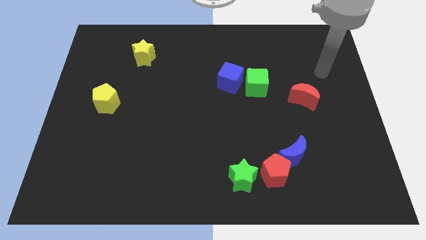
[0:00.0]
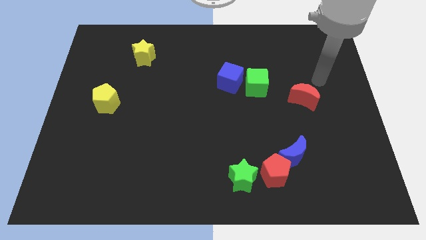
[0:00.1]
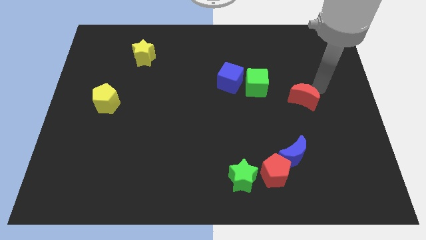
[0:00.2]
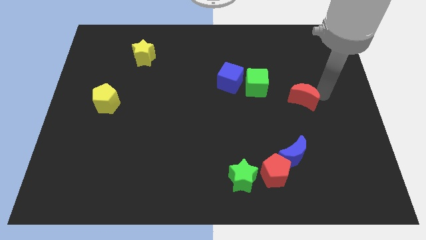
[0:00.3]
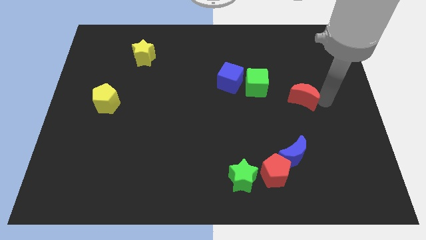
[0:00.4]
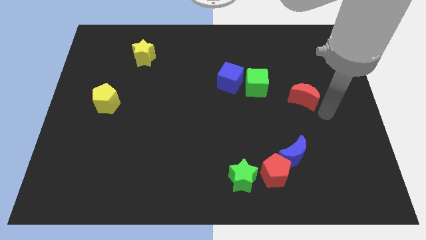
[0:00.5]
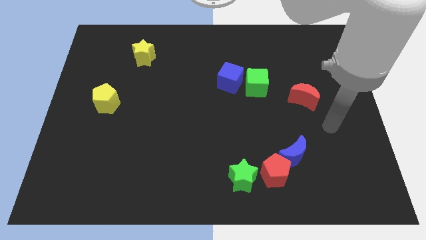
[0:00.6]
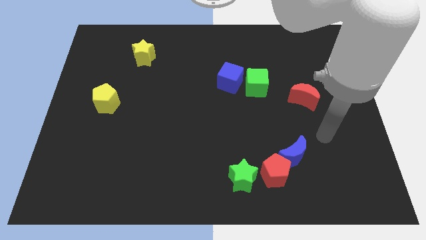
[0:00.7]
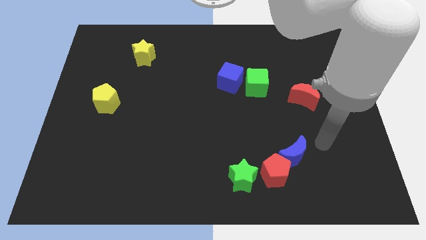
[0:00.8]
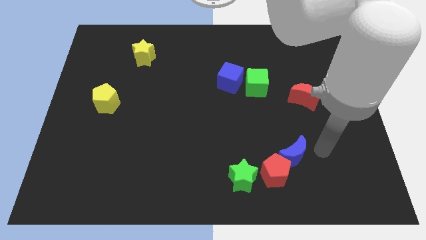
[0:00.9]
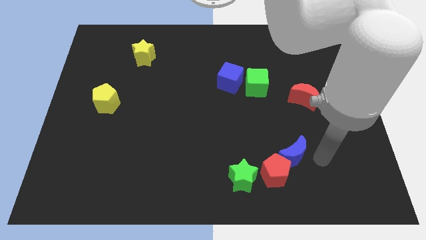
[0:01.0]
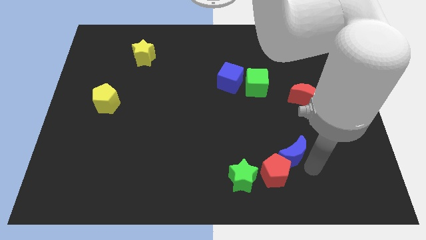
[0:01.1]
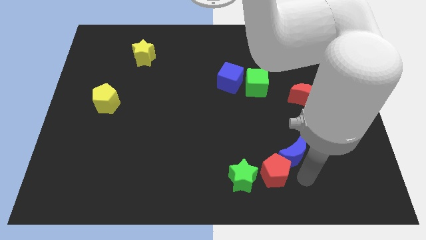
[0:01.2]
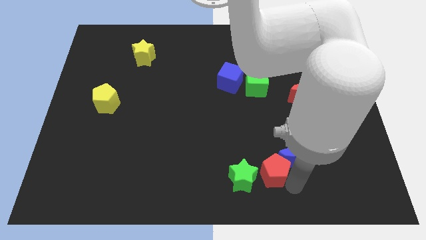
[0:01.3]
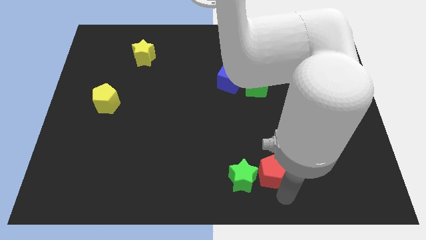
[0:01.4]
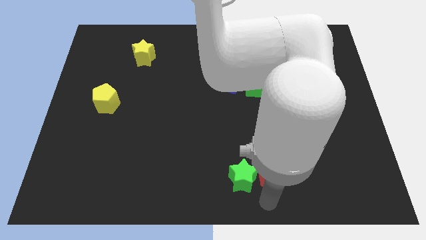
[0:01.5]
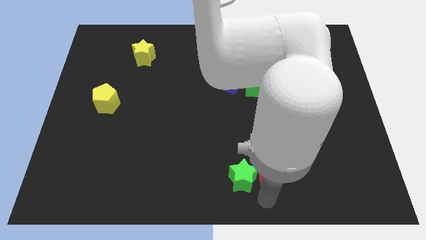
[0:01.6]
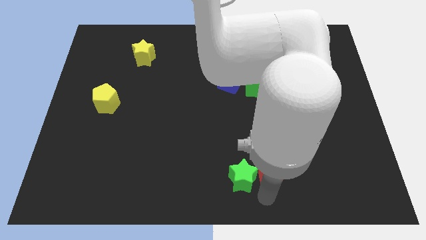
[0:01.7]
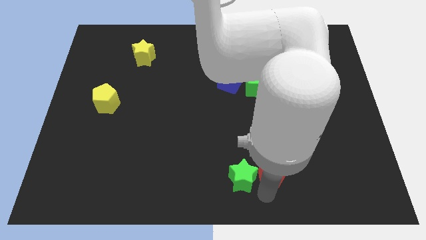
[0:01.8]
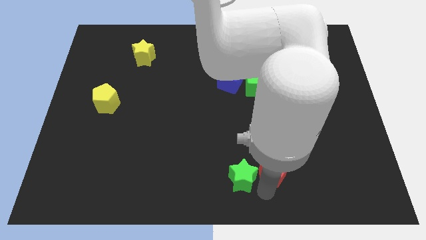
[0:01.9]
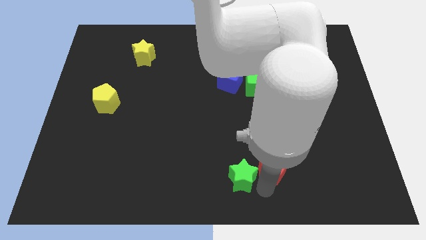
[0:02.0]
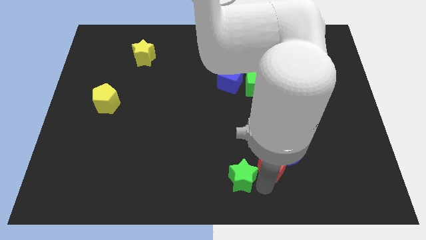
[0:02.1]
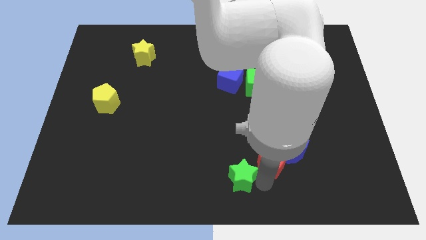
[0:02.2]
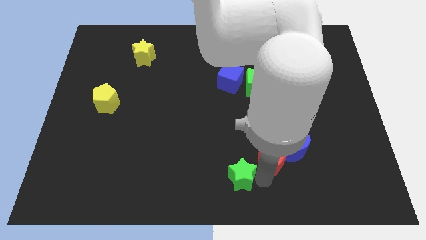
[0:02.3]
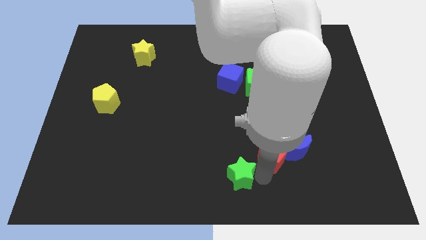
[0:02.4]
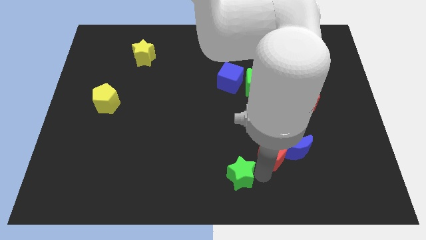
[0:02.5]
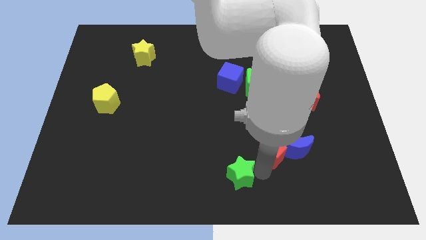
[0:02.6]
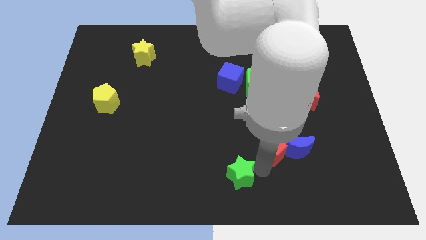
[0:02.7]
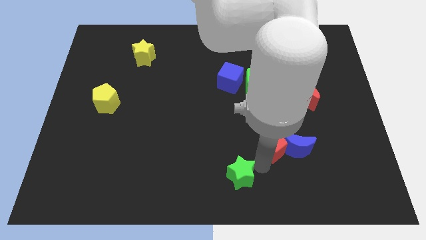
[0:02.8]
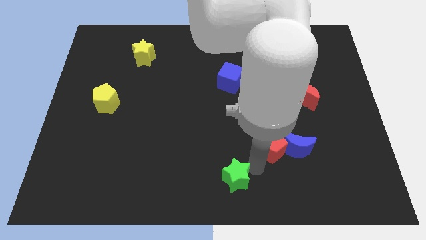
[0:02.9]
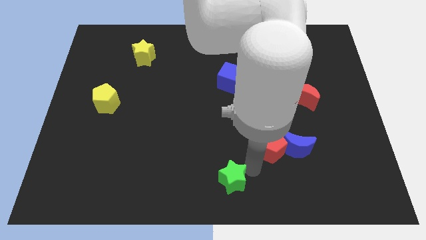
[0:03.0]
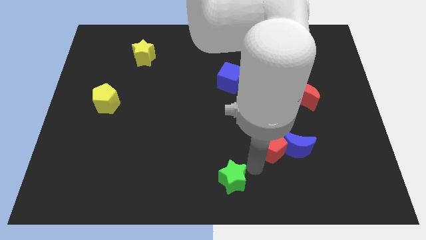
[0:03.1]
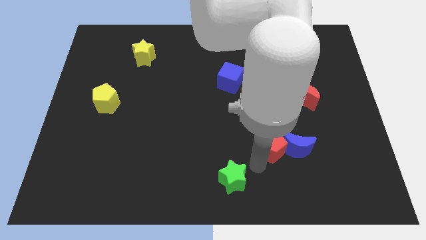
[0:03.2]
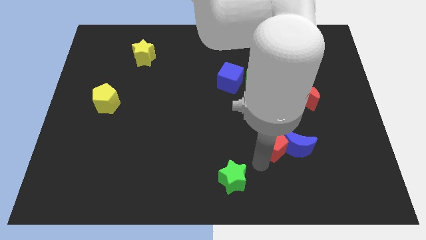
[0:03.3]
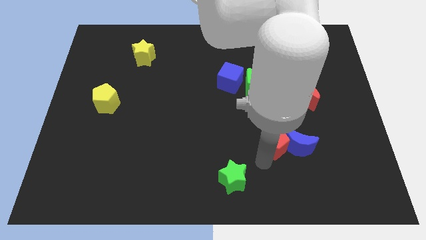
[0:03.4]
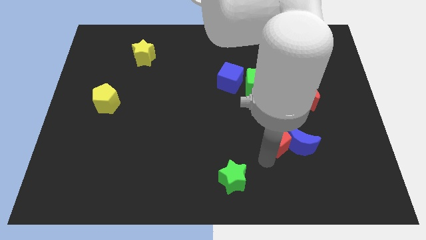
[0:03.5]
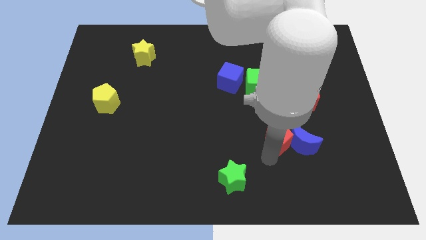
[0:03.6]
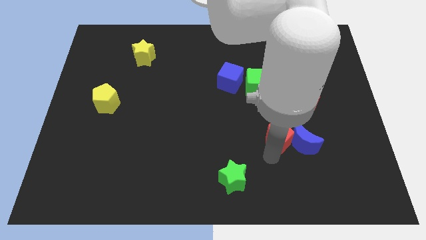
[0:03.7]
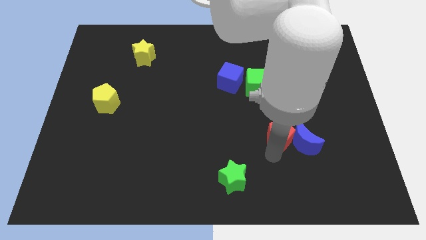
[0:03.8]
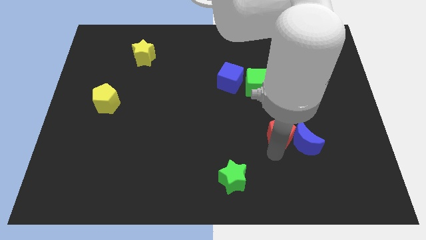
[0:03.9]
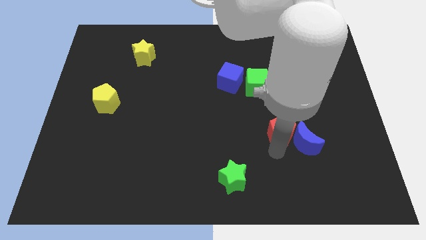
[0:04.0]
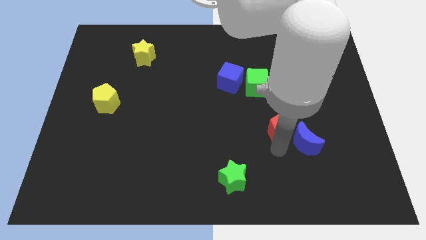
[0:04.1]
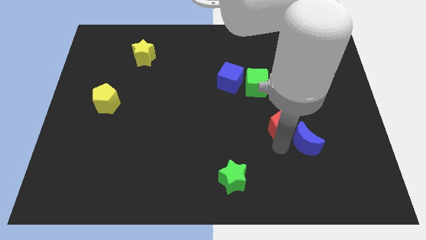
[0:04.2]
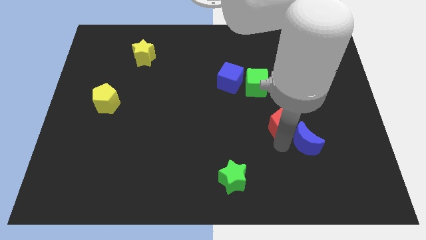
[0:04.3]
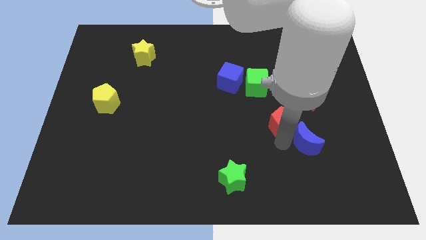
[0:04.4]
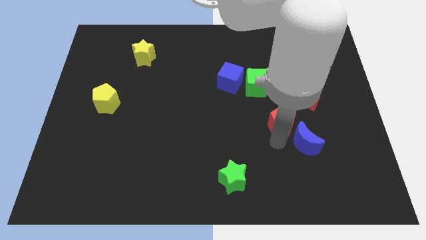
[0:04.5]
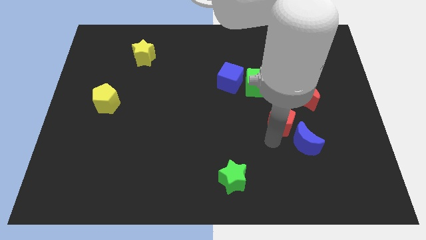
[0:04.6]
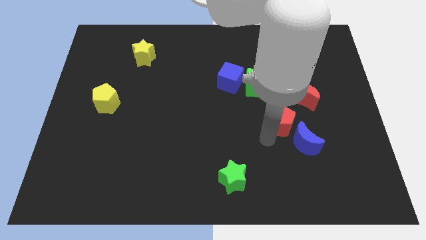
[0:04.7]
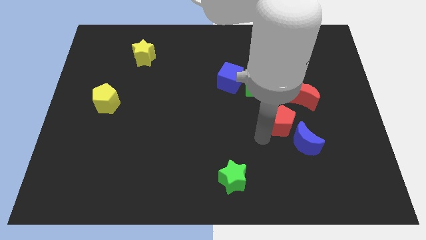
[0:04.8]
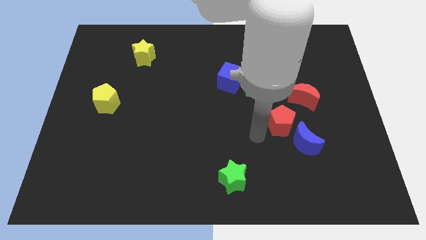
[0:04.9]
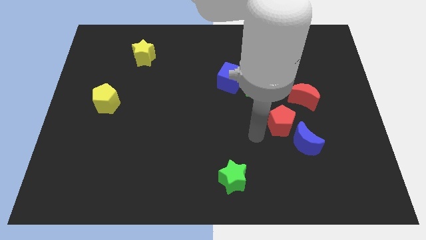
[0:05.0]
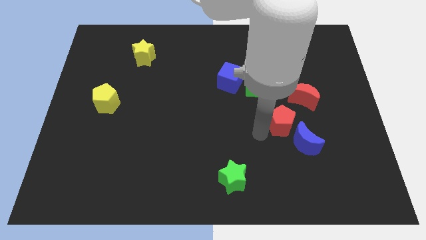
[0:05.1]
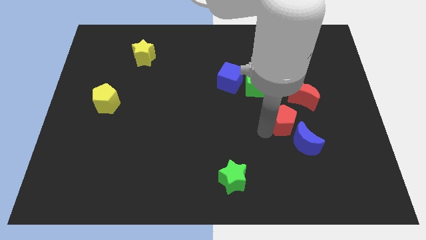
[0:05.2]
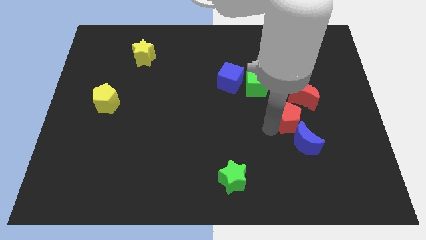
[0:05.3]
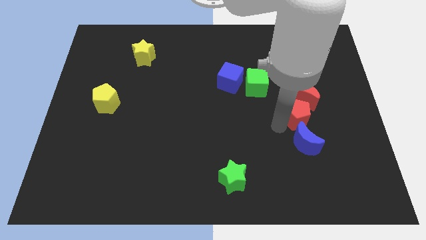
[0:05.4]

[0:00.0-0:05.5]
push the red pentagon close to the red moon

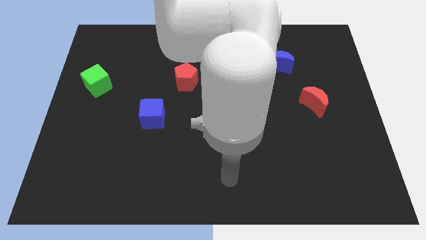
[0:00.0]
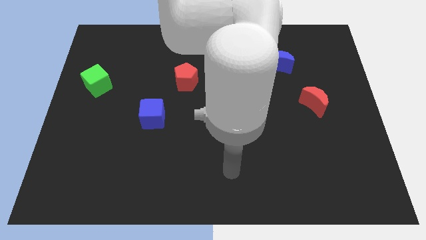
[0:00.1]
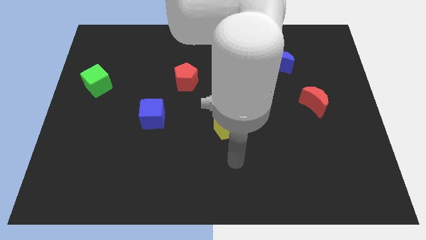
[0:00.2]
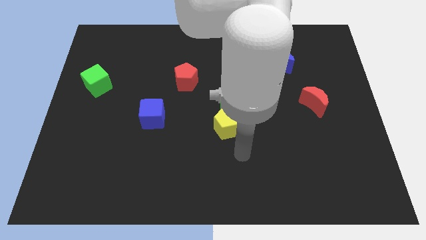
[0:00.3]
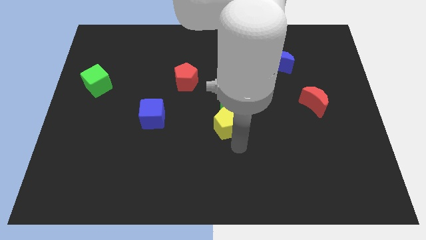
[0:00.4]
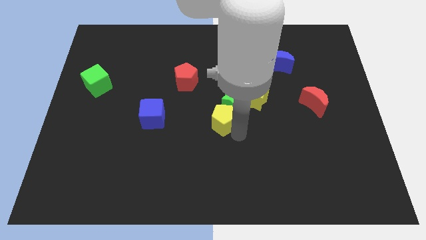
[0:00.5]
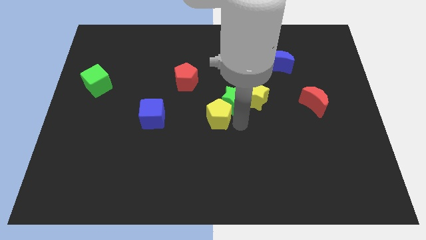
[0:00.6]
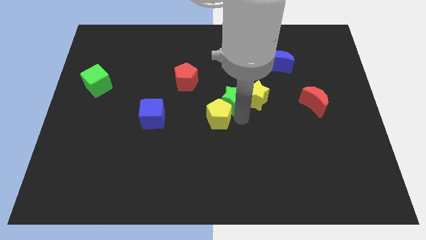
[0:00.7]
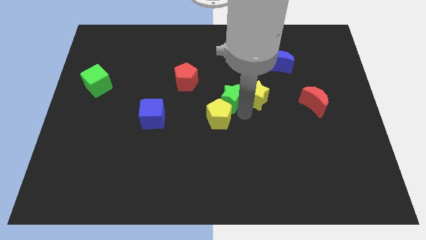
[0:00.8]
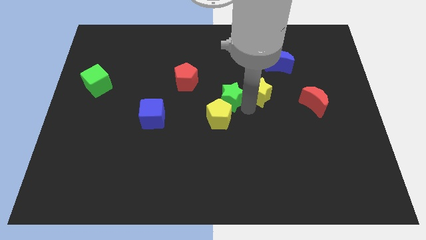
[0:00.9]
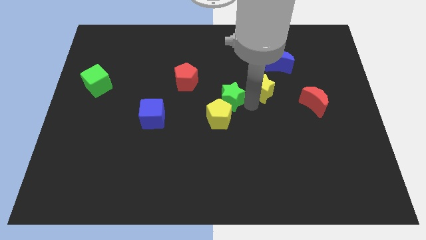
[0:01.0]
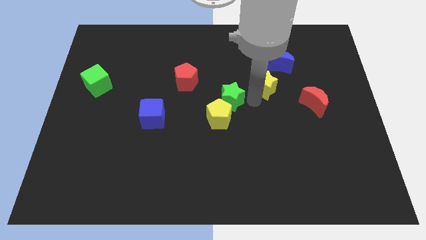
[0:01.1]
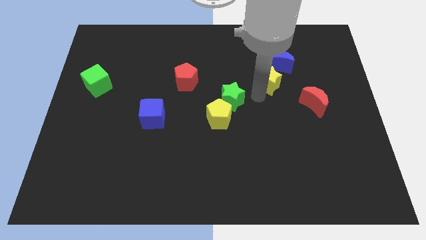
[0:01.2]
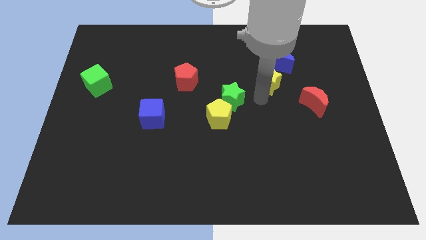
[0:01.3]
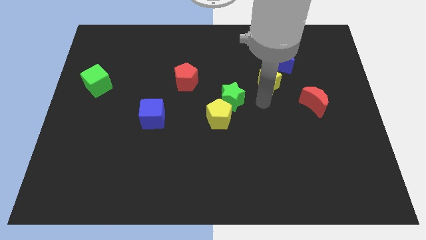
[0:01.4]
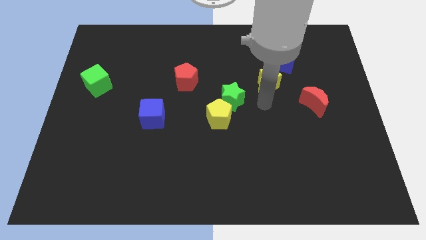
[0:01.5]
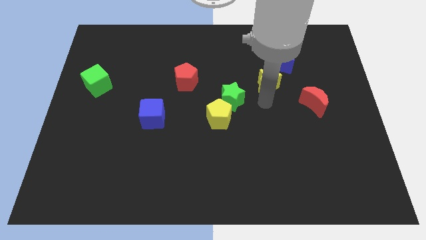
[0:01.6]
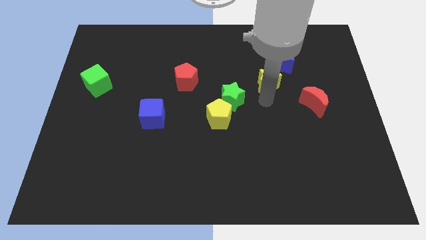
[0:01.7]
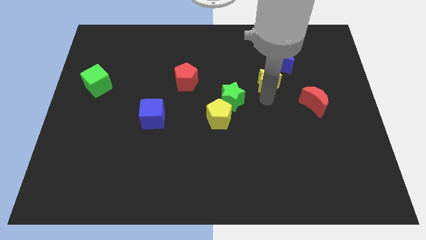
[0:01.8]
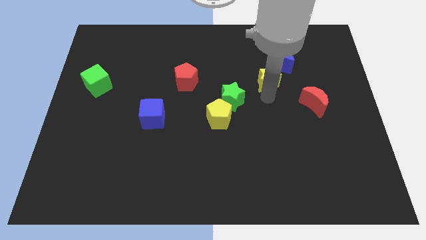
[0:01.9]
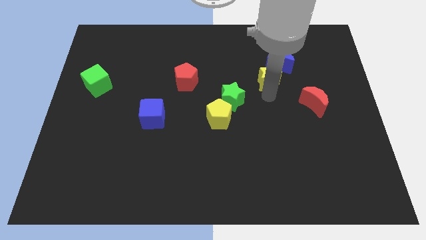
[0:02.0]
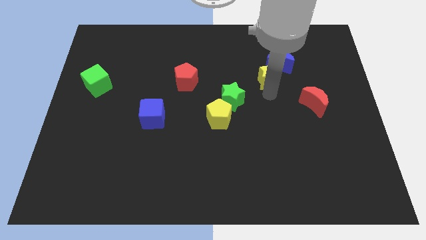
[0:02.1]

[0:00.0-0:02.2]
put the yellow star towards the blue moon

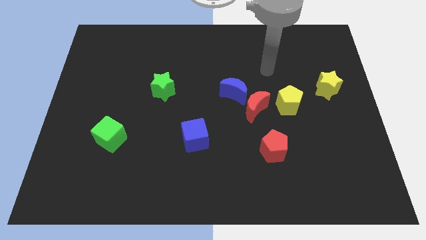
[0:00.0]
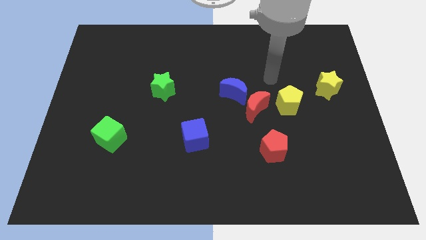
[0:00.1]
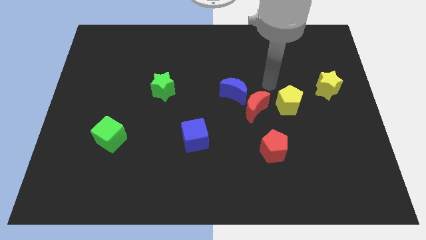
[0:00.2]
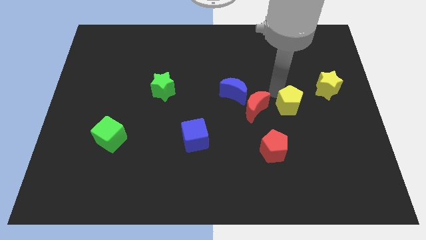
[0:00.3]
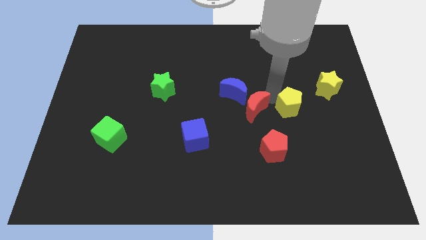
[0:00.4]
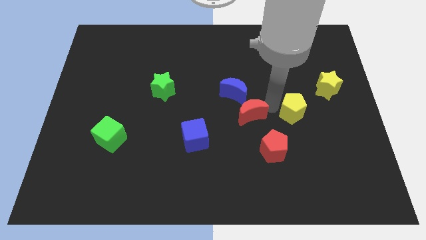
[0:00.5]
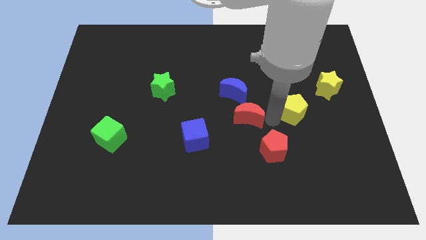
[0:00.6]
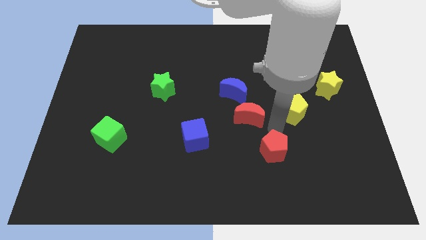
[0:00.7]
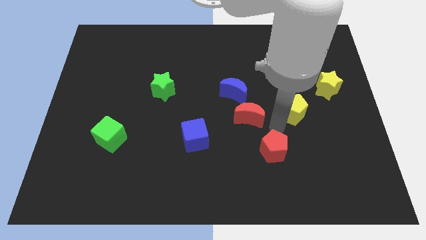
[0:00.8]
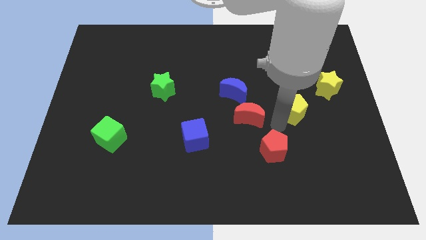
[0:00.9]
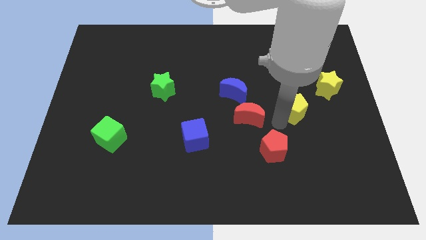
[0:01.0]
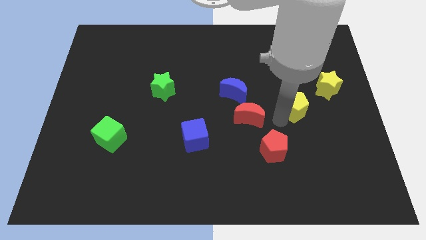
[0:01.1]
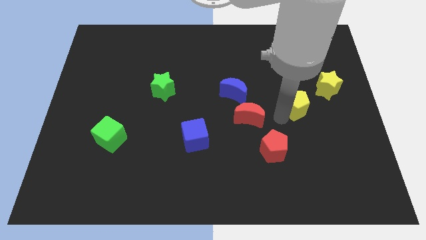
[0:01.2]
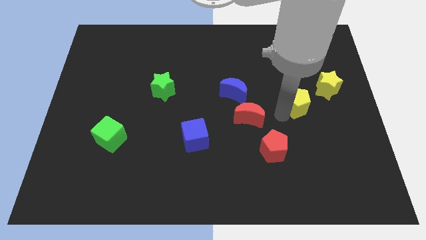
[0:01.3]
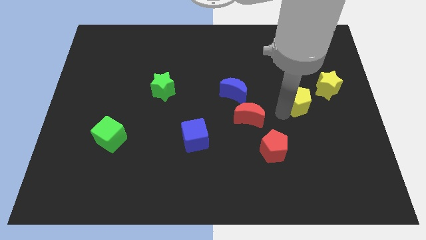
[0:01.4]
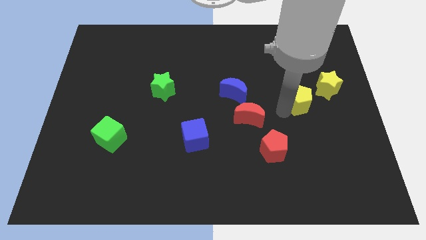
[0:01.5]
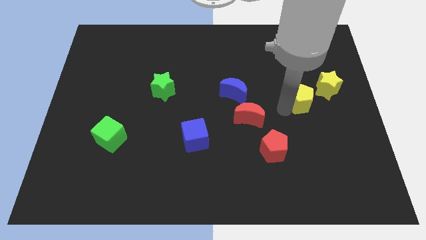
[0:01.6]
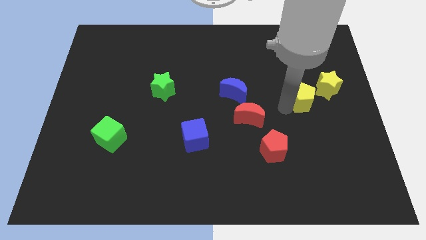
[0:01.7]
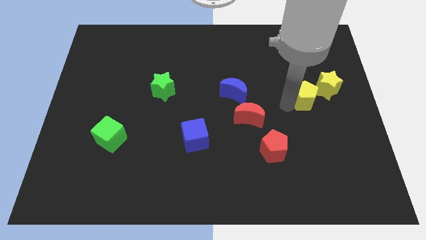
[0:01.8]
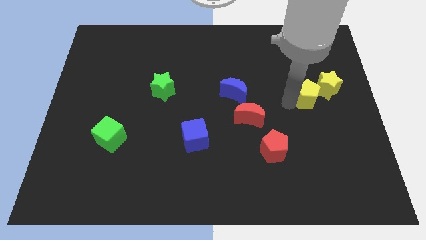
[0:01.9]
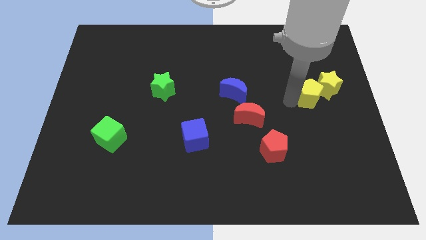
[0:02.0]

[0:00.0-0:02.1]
put the yellow pentagon next to the yellow star
